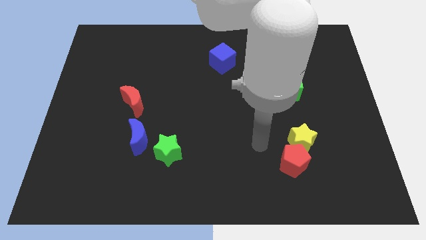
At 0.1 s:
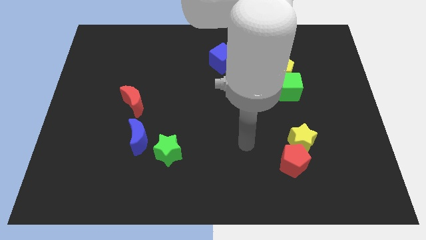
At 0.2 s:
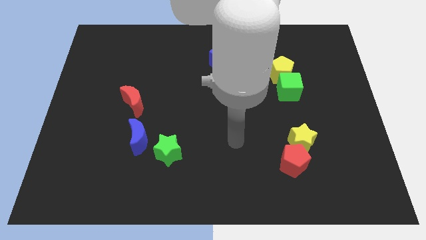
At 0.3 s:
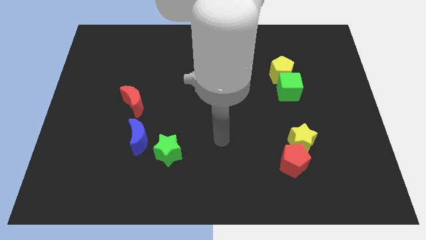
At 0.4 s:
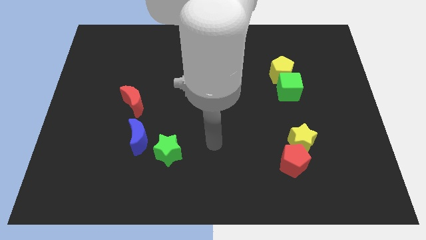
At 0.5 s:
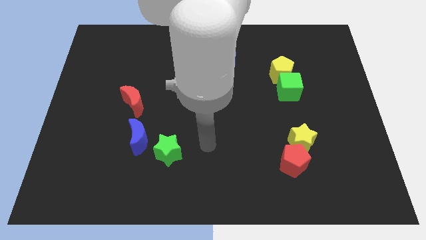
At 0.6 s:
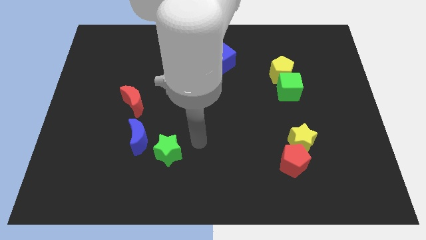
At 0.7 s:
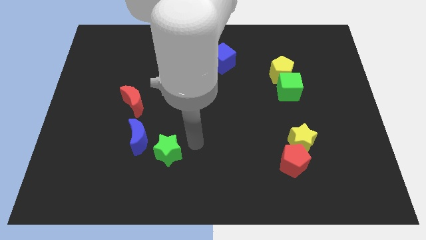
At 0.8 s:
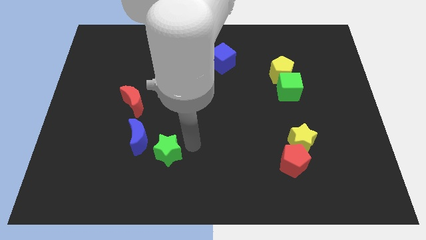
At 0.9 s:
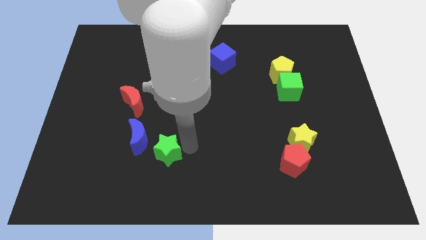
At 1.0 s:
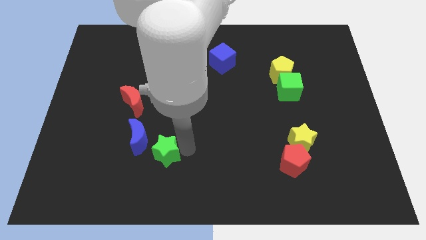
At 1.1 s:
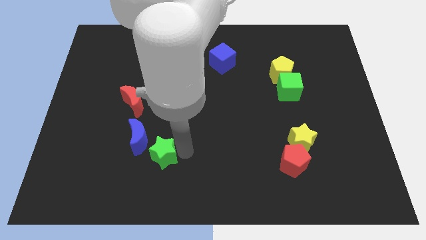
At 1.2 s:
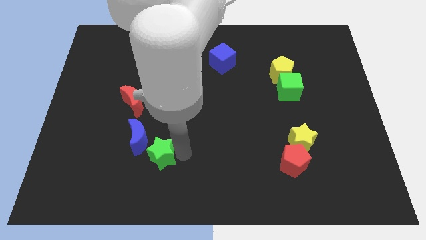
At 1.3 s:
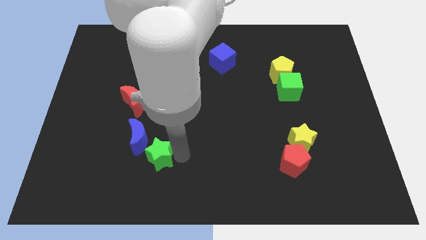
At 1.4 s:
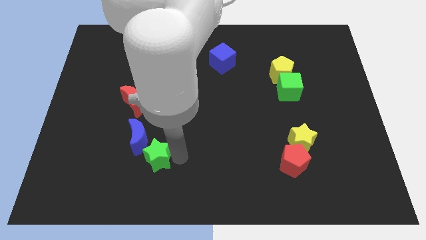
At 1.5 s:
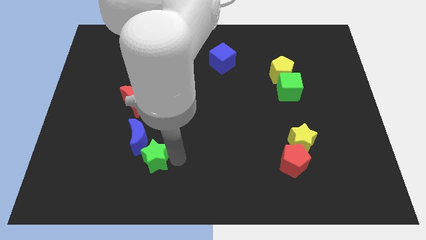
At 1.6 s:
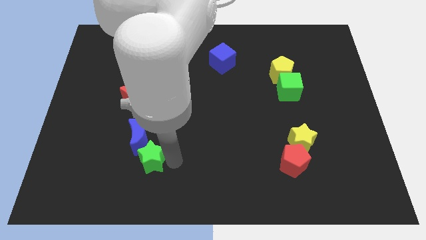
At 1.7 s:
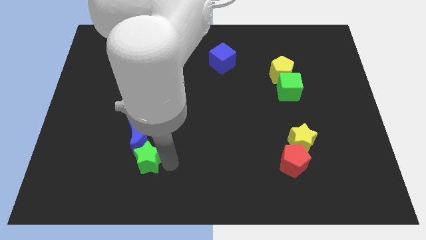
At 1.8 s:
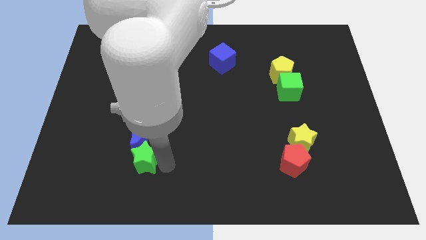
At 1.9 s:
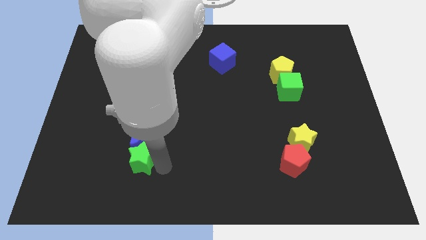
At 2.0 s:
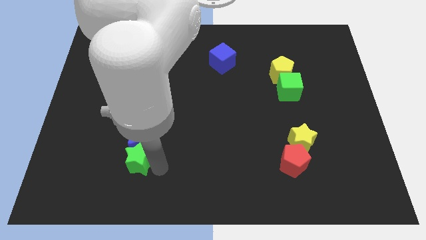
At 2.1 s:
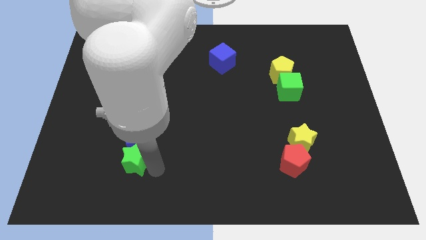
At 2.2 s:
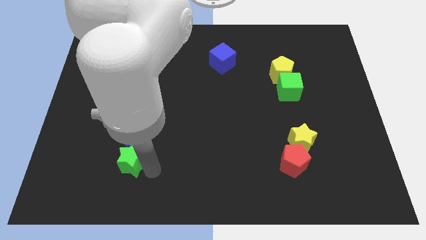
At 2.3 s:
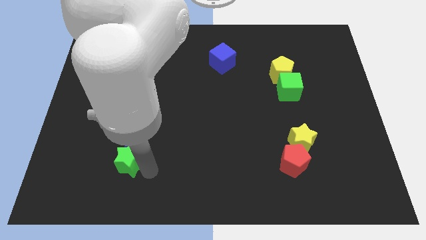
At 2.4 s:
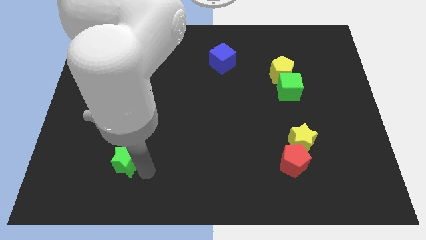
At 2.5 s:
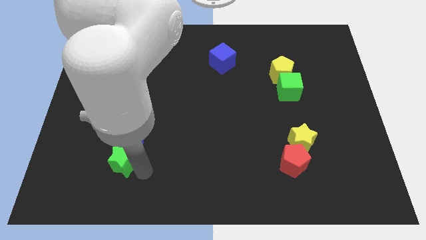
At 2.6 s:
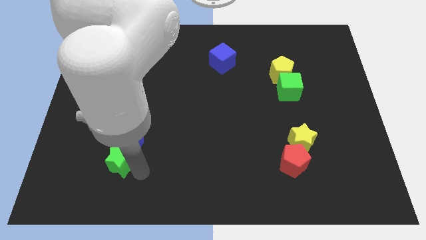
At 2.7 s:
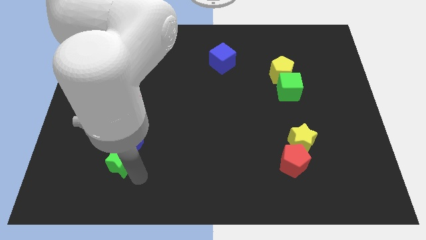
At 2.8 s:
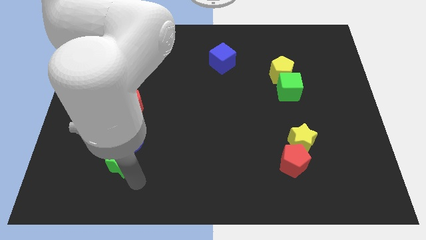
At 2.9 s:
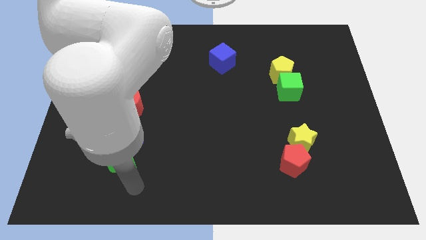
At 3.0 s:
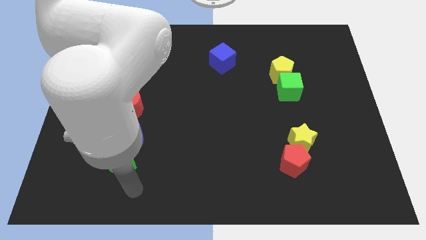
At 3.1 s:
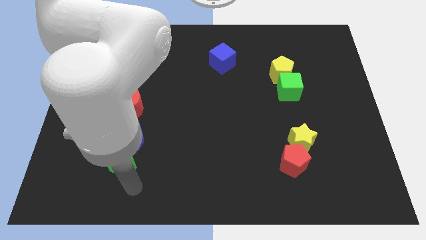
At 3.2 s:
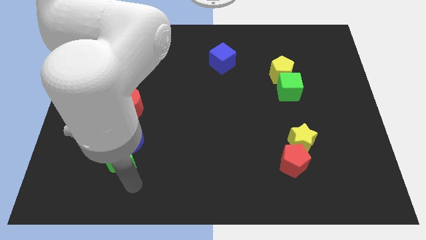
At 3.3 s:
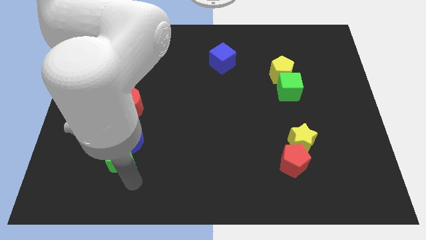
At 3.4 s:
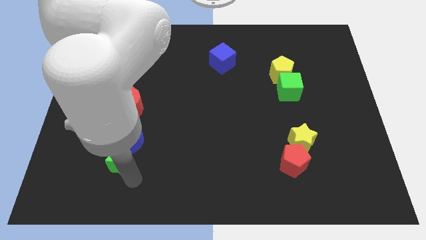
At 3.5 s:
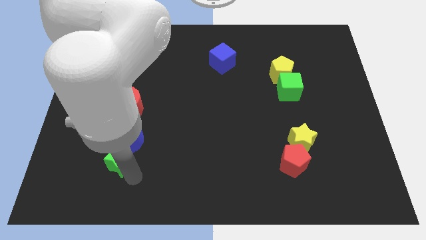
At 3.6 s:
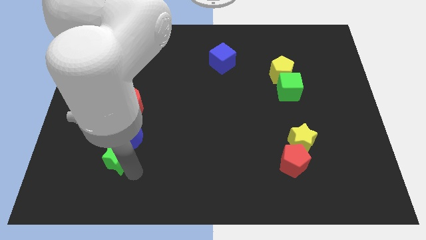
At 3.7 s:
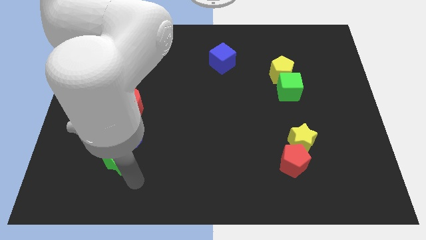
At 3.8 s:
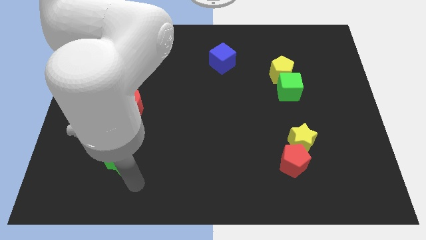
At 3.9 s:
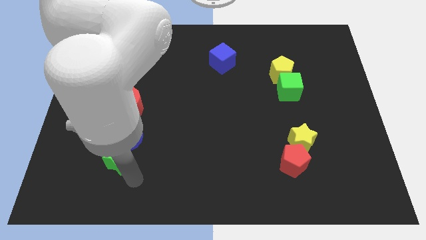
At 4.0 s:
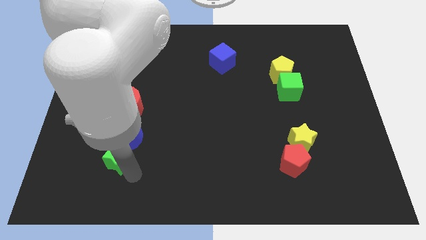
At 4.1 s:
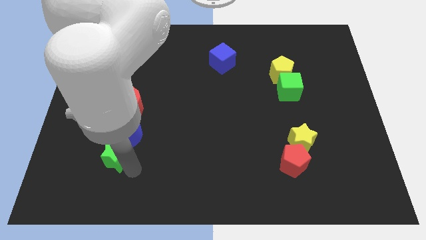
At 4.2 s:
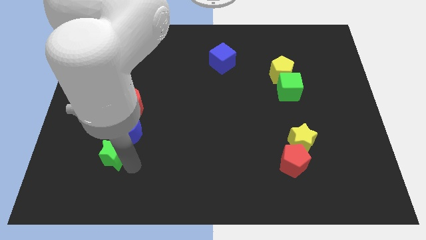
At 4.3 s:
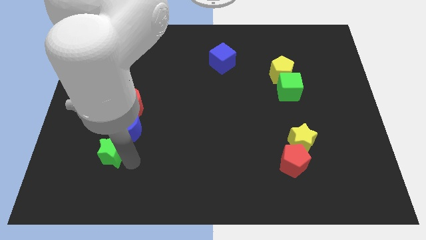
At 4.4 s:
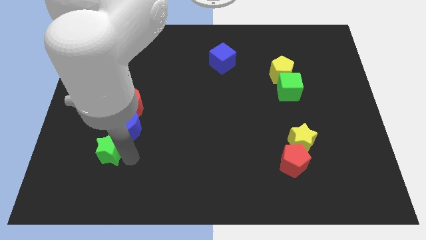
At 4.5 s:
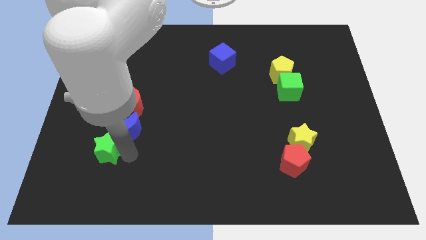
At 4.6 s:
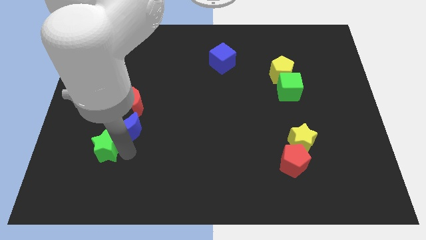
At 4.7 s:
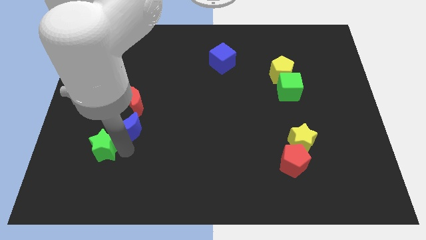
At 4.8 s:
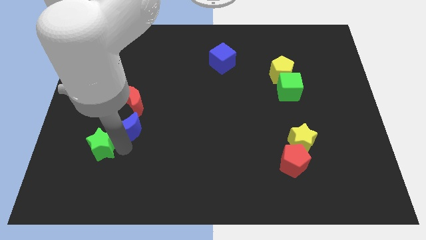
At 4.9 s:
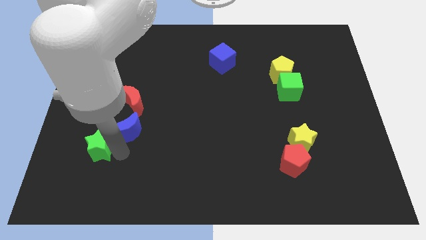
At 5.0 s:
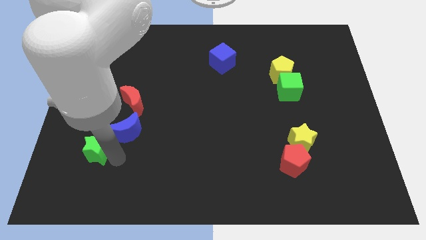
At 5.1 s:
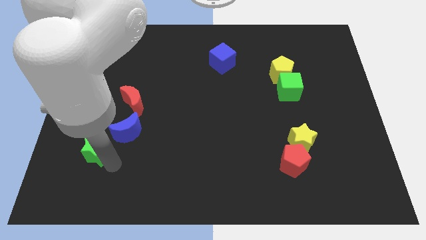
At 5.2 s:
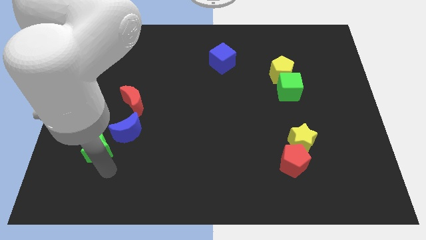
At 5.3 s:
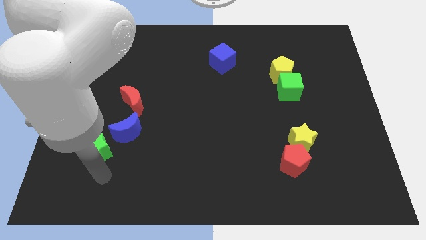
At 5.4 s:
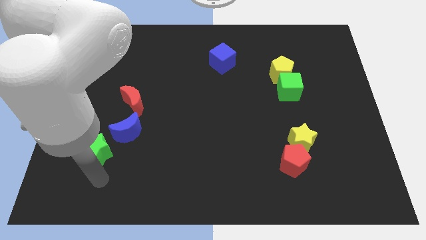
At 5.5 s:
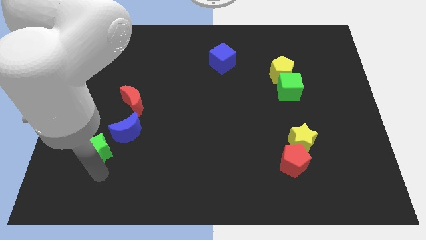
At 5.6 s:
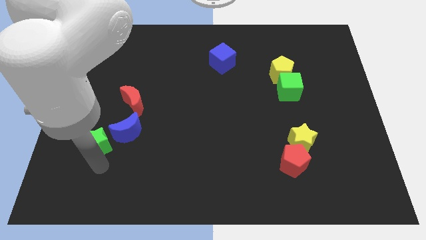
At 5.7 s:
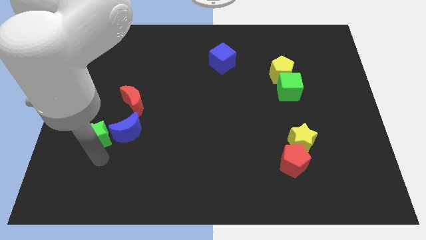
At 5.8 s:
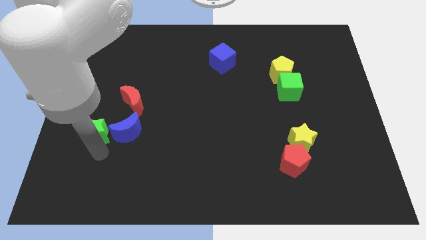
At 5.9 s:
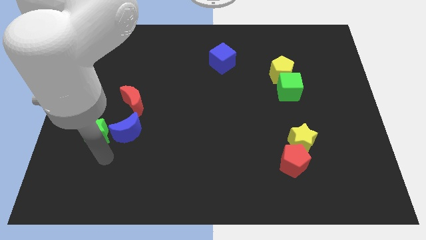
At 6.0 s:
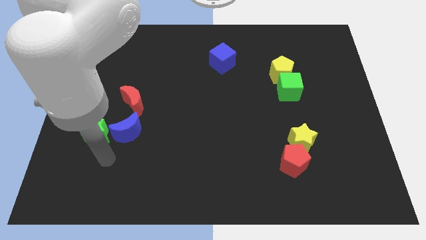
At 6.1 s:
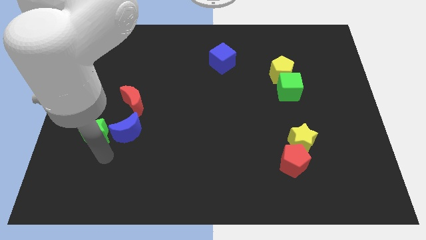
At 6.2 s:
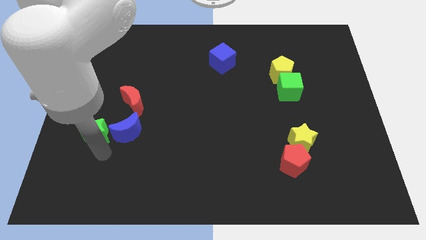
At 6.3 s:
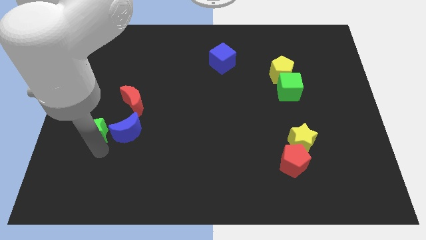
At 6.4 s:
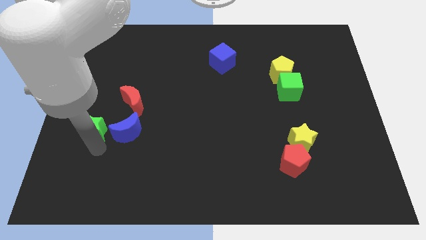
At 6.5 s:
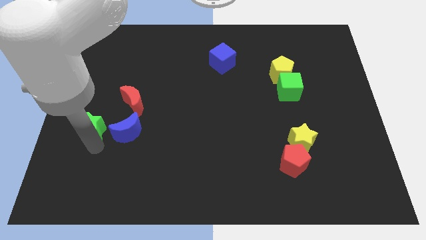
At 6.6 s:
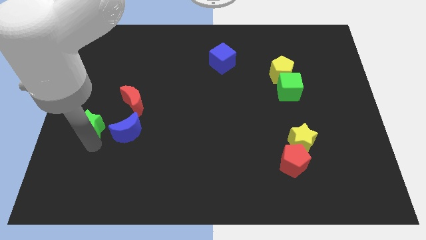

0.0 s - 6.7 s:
put the green star to the left side
